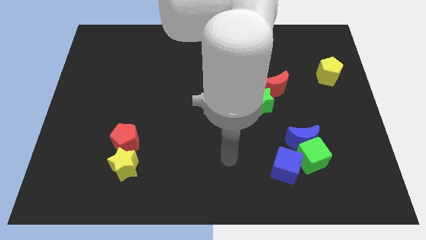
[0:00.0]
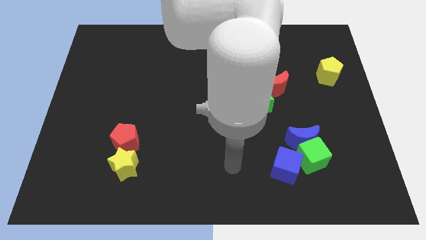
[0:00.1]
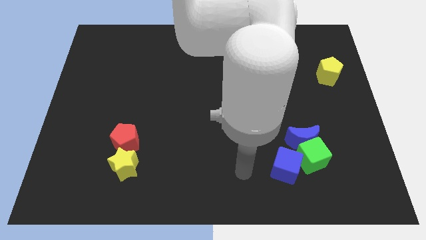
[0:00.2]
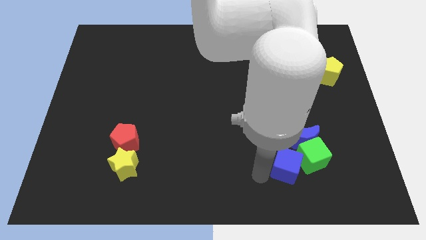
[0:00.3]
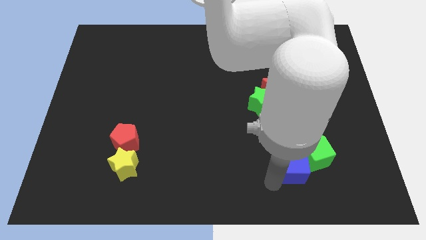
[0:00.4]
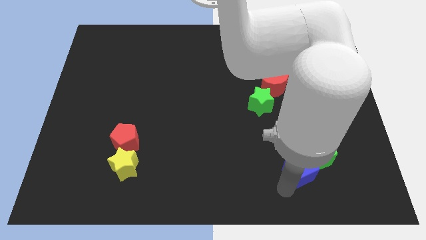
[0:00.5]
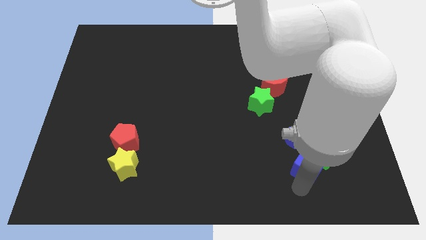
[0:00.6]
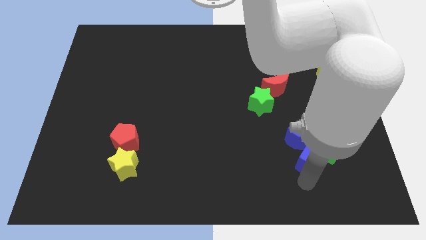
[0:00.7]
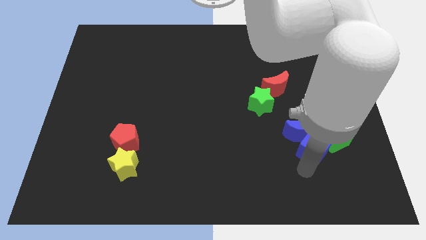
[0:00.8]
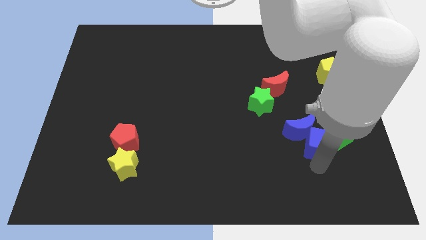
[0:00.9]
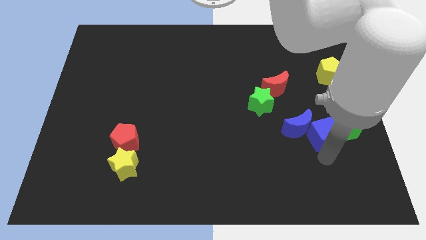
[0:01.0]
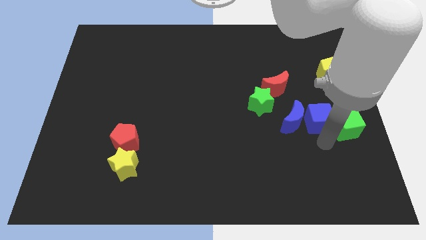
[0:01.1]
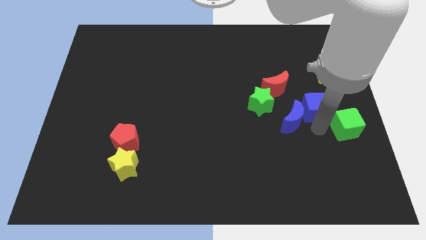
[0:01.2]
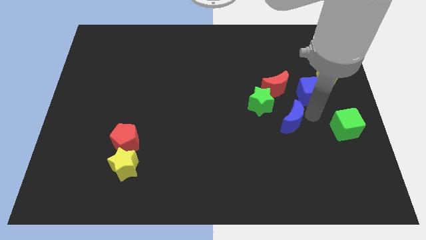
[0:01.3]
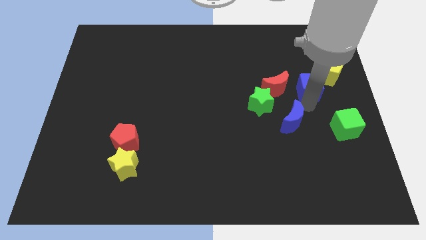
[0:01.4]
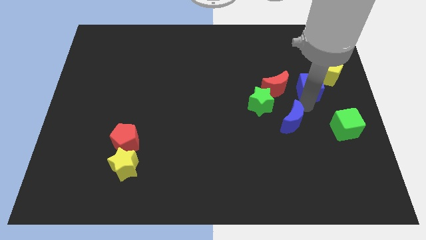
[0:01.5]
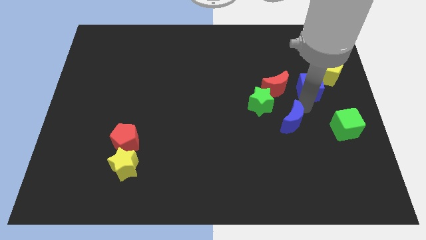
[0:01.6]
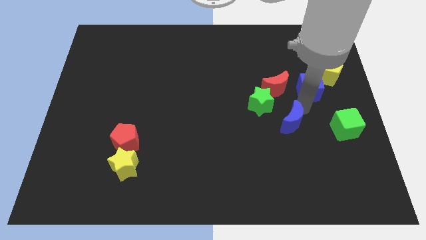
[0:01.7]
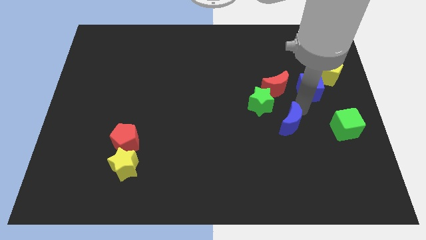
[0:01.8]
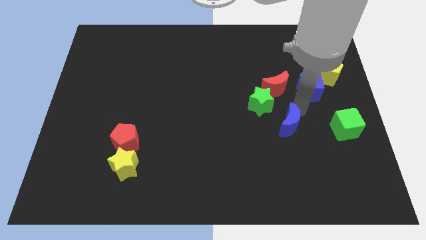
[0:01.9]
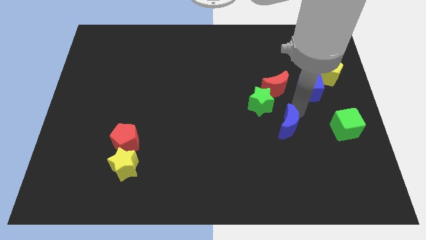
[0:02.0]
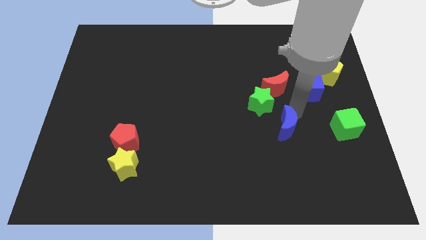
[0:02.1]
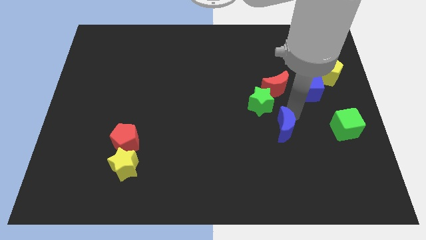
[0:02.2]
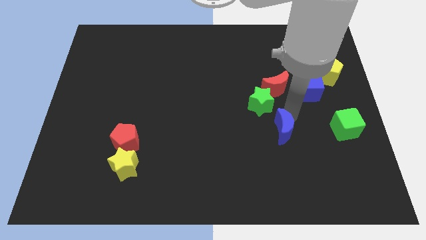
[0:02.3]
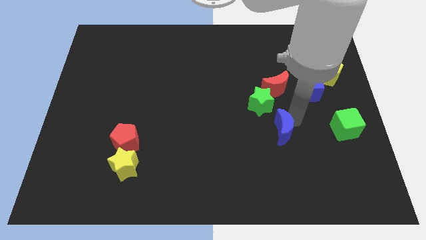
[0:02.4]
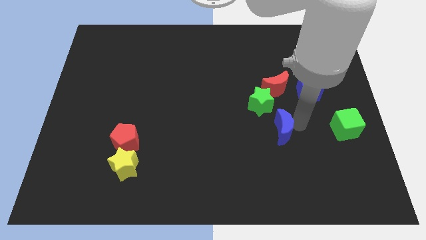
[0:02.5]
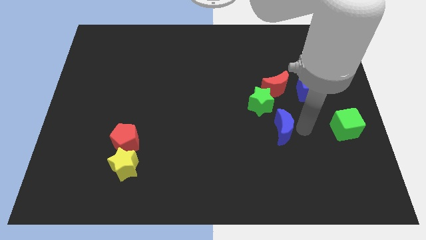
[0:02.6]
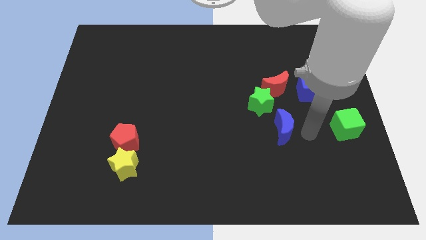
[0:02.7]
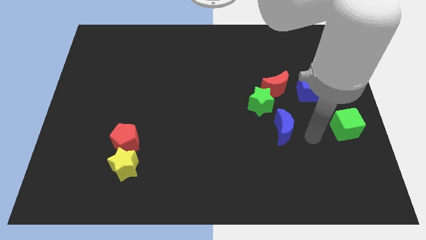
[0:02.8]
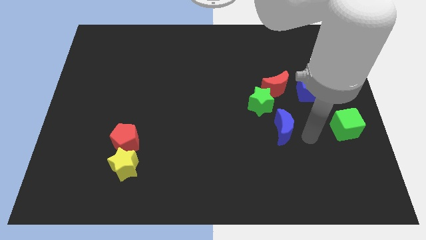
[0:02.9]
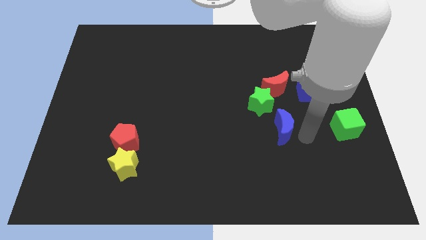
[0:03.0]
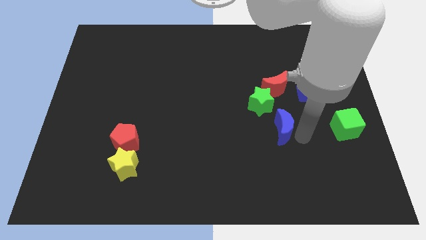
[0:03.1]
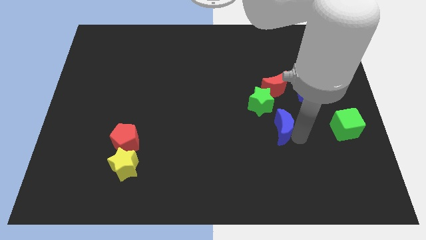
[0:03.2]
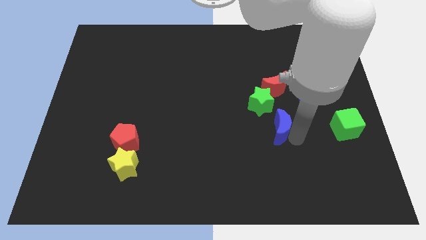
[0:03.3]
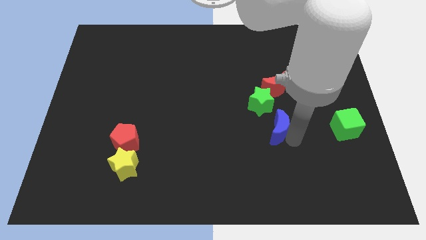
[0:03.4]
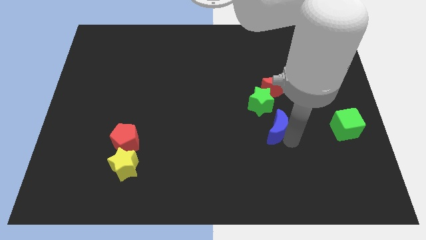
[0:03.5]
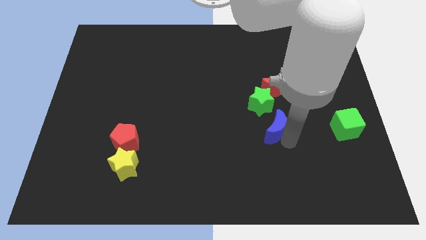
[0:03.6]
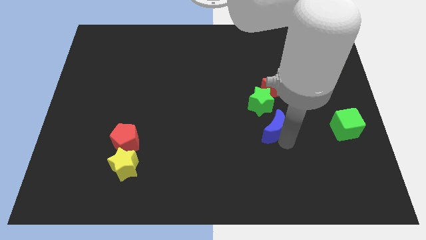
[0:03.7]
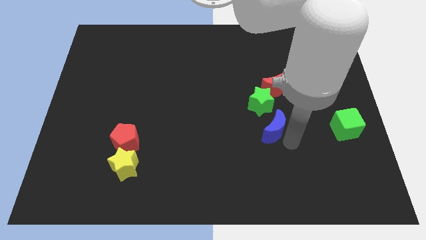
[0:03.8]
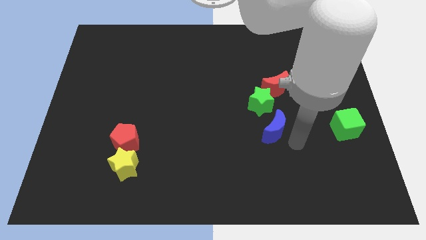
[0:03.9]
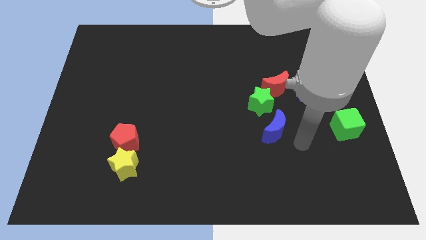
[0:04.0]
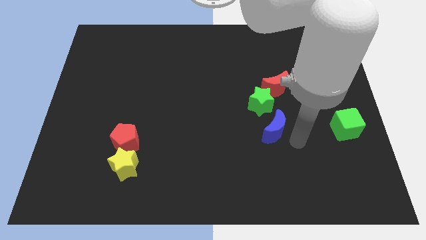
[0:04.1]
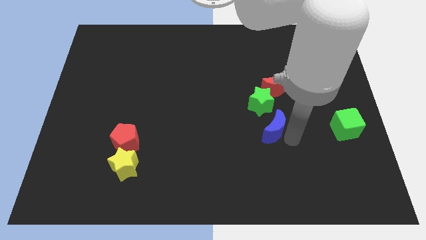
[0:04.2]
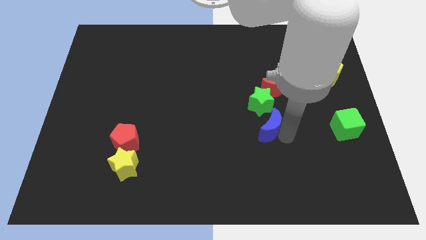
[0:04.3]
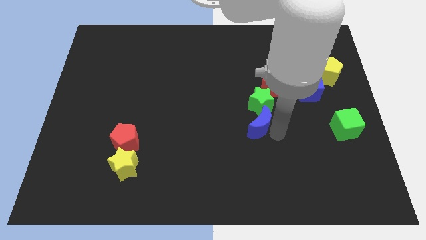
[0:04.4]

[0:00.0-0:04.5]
push the blue moon a little diagonally up and to the left

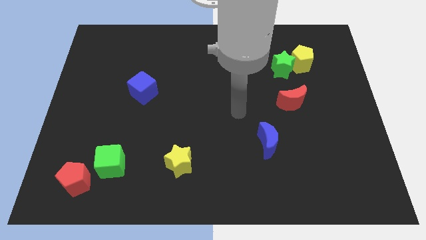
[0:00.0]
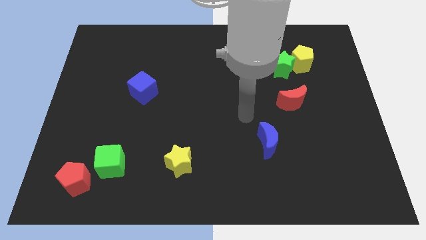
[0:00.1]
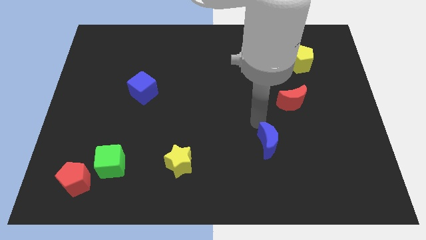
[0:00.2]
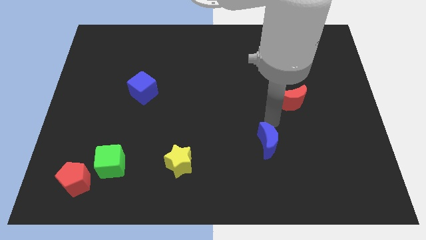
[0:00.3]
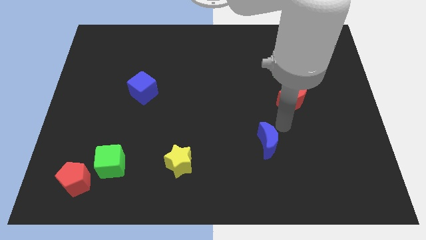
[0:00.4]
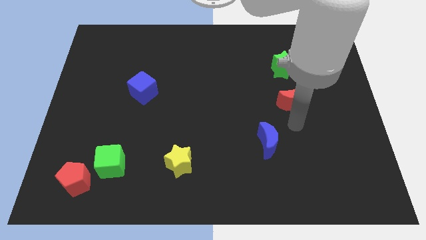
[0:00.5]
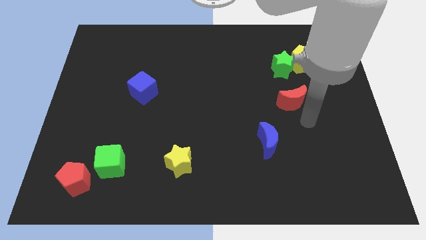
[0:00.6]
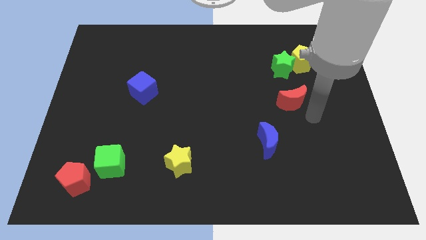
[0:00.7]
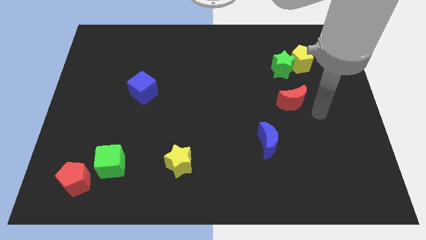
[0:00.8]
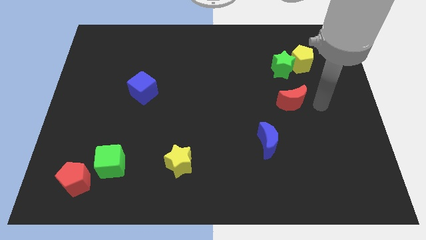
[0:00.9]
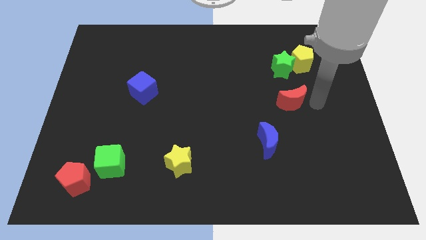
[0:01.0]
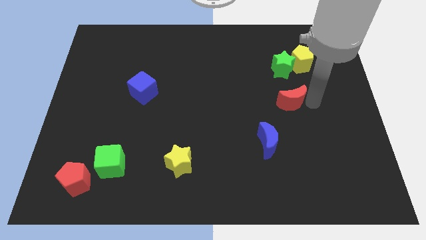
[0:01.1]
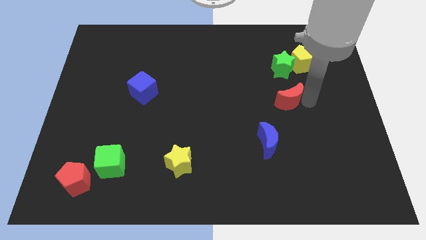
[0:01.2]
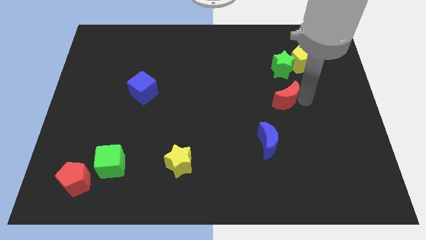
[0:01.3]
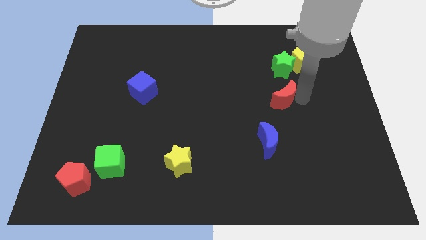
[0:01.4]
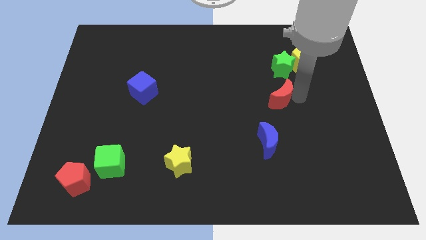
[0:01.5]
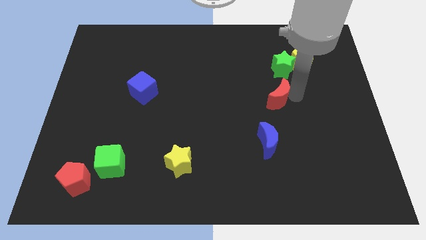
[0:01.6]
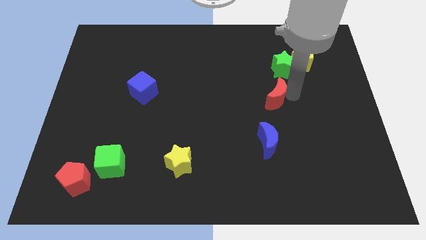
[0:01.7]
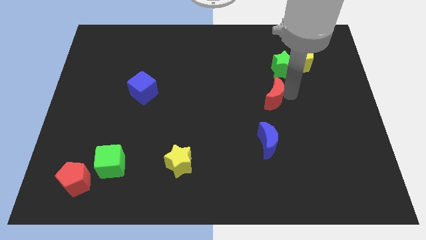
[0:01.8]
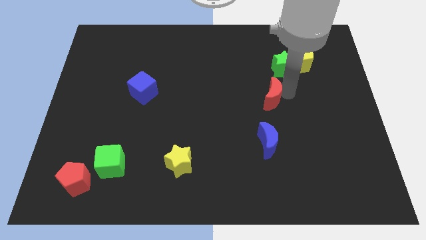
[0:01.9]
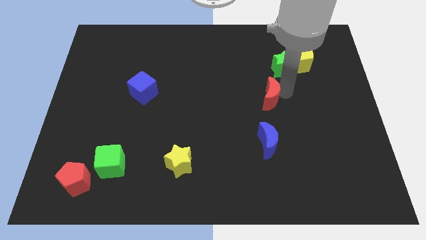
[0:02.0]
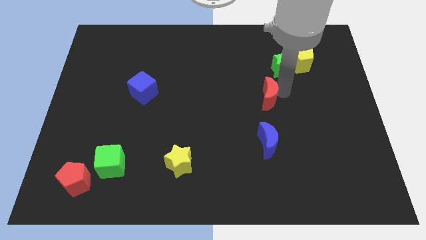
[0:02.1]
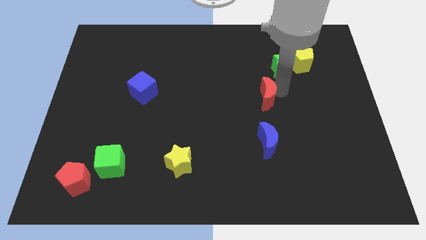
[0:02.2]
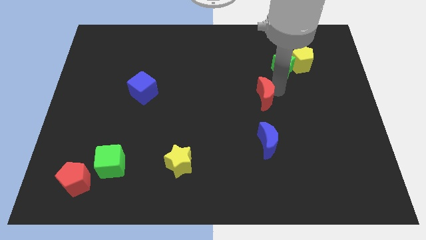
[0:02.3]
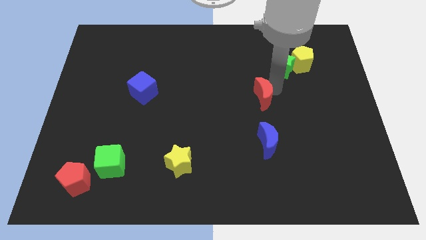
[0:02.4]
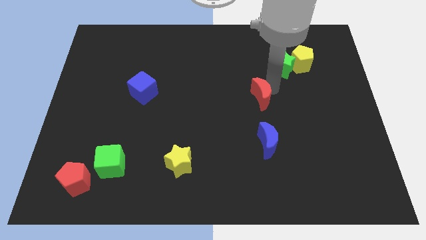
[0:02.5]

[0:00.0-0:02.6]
push the red moon left a bit

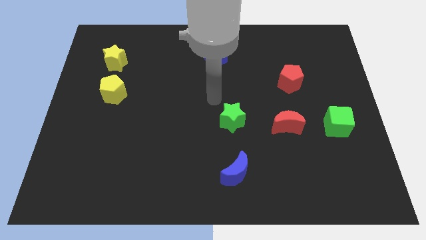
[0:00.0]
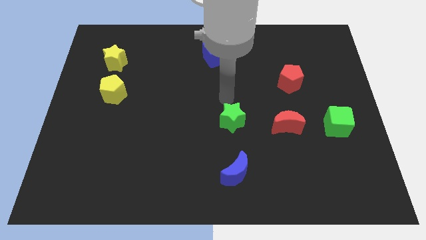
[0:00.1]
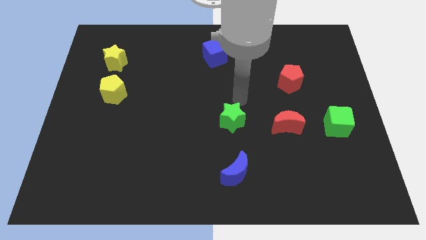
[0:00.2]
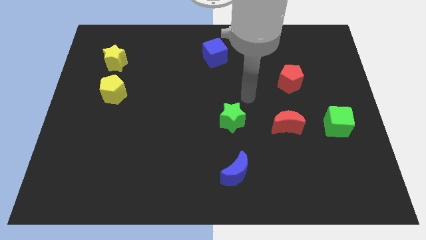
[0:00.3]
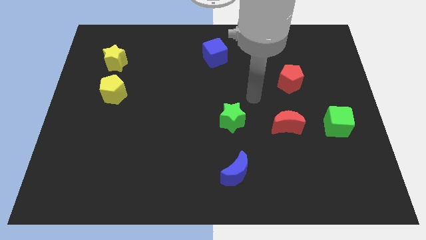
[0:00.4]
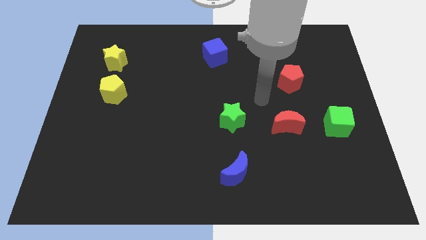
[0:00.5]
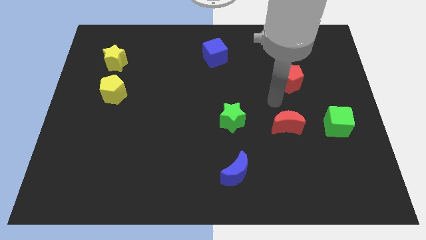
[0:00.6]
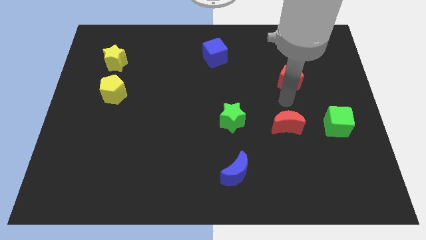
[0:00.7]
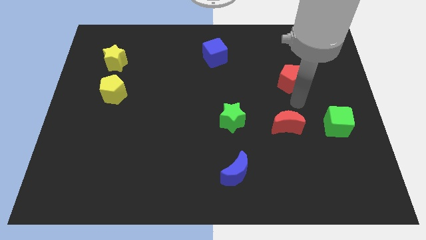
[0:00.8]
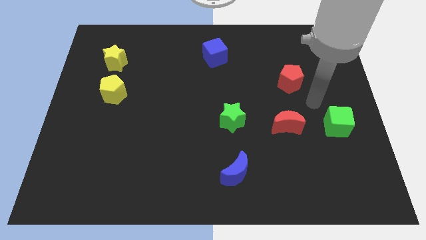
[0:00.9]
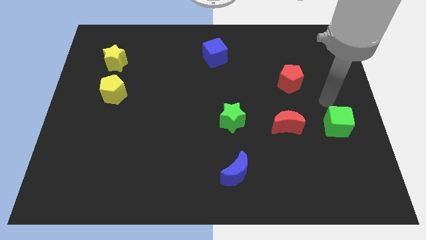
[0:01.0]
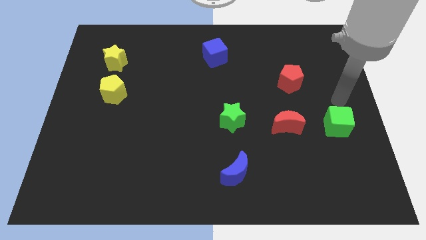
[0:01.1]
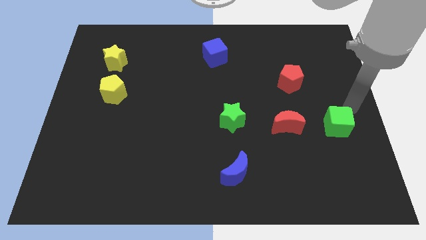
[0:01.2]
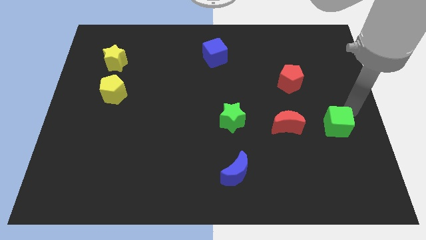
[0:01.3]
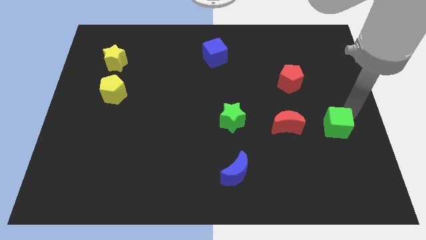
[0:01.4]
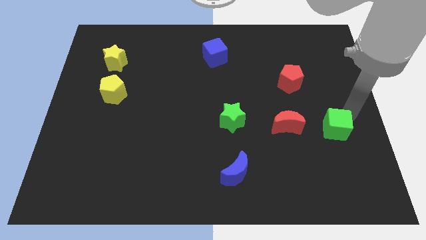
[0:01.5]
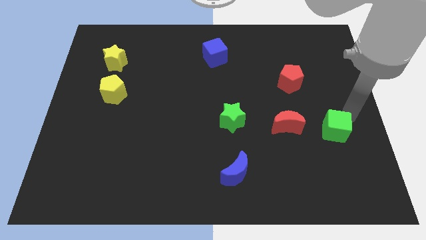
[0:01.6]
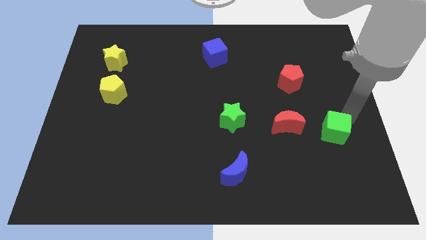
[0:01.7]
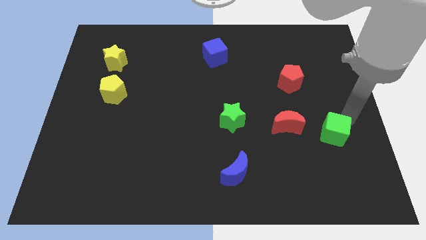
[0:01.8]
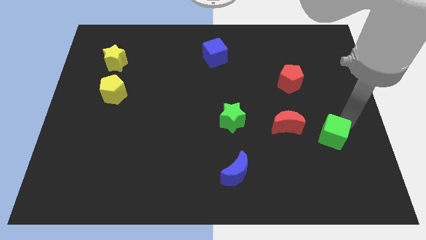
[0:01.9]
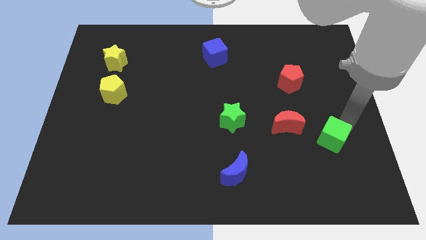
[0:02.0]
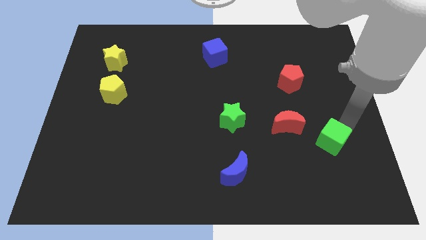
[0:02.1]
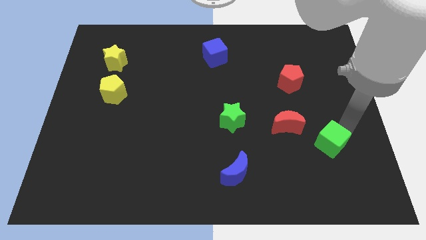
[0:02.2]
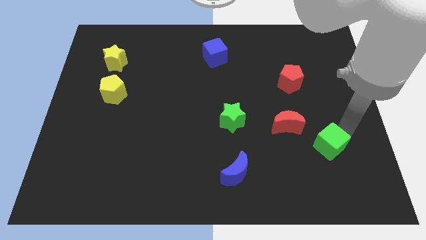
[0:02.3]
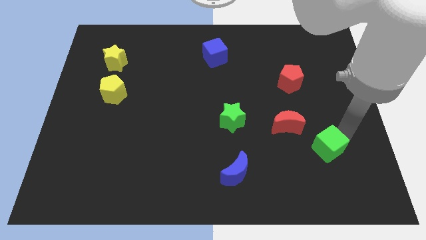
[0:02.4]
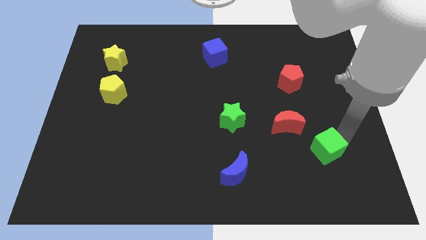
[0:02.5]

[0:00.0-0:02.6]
slide the green cube downwards and left diagonally slightly
